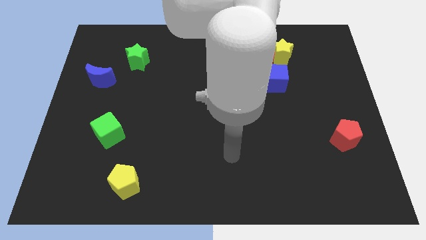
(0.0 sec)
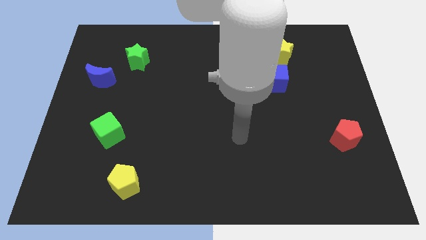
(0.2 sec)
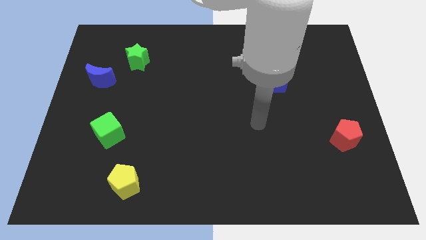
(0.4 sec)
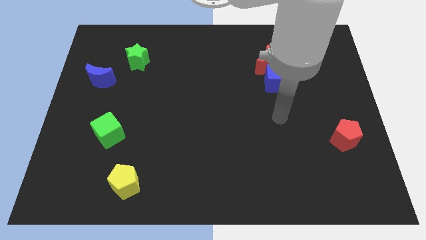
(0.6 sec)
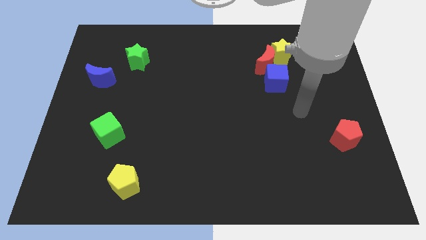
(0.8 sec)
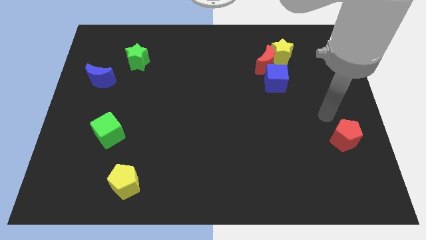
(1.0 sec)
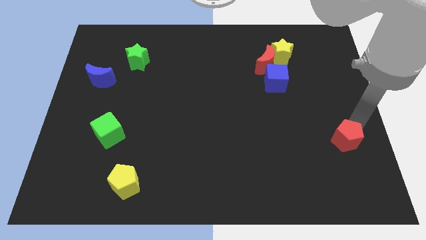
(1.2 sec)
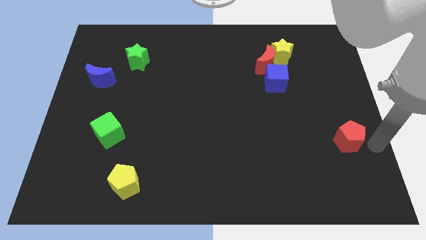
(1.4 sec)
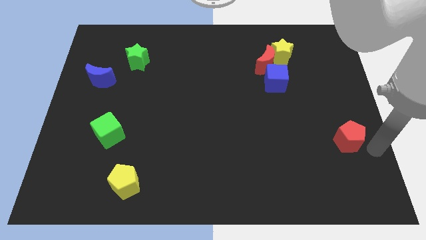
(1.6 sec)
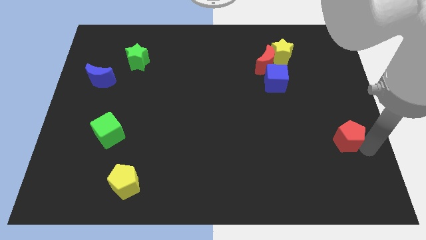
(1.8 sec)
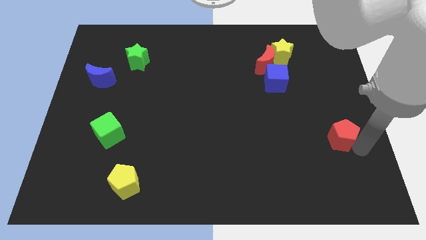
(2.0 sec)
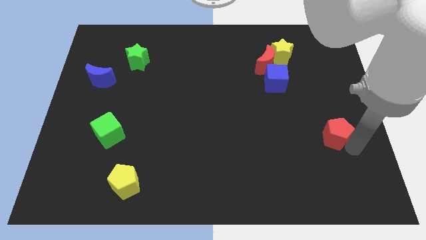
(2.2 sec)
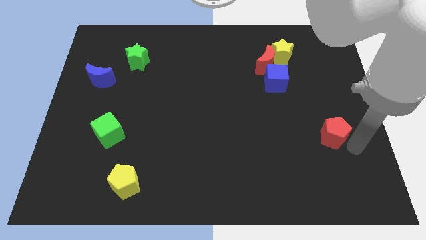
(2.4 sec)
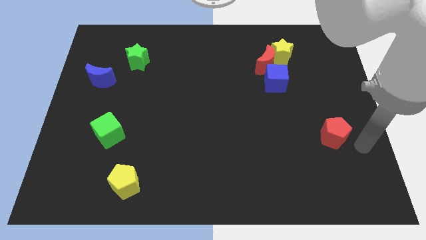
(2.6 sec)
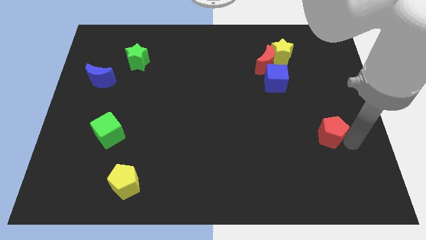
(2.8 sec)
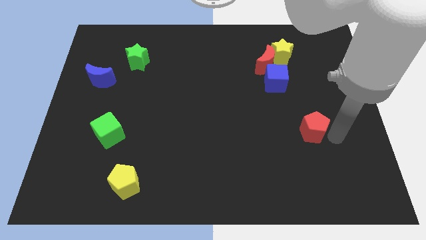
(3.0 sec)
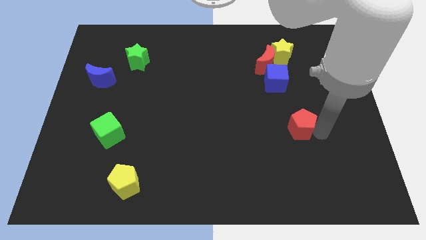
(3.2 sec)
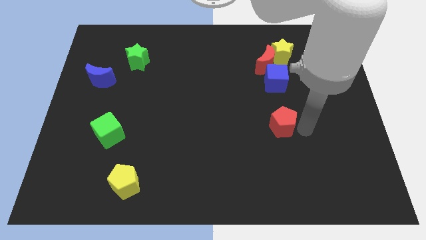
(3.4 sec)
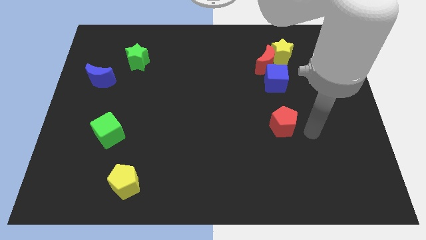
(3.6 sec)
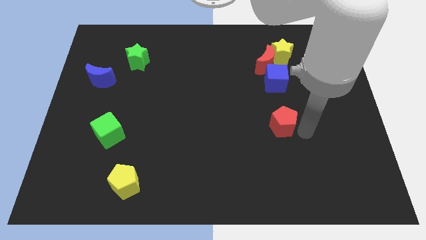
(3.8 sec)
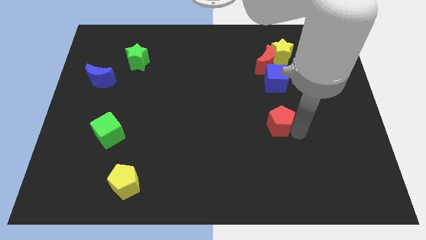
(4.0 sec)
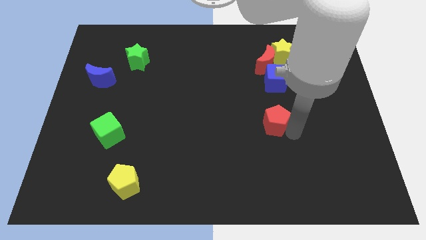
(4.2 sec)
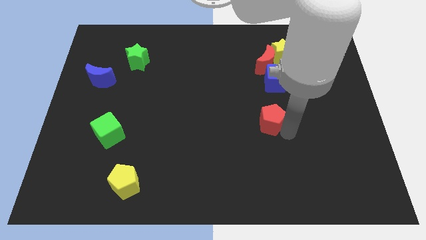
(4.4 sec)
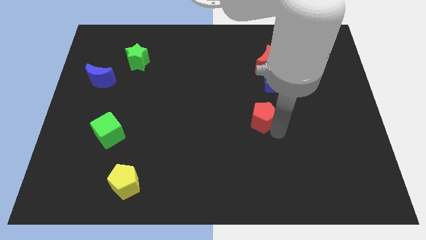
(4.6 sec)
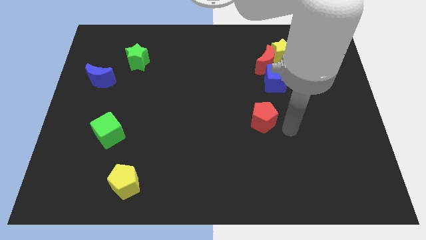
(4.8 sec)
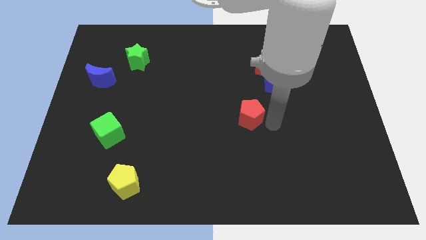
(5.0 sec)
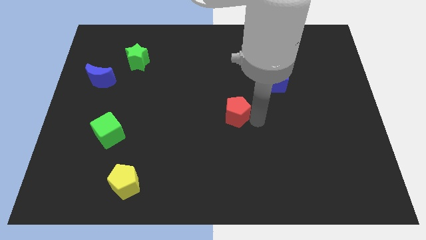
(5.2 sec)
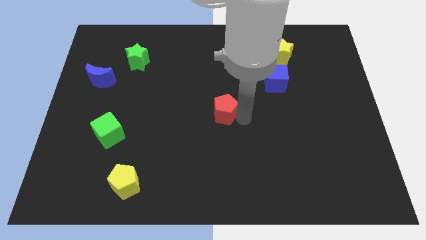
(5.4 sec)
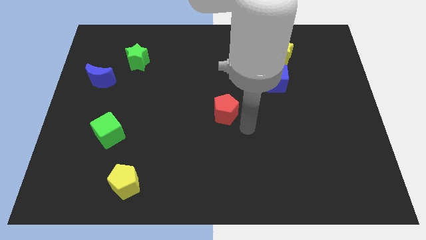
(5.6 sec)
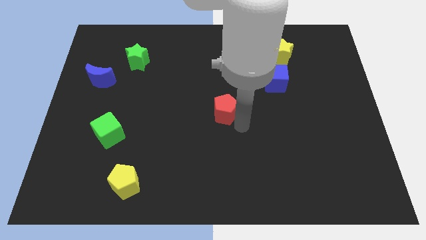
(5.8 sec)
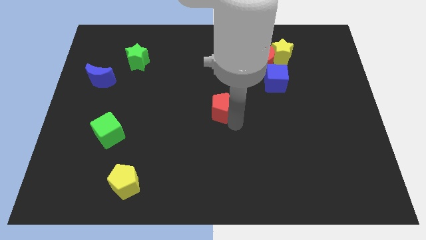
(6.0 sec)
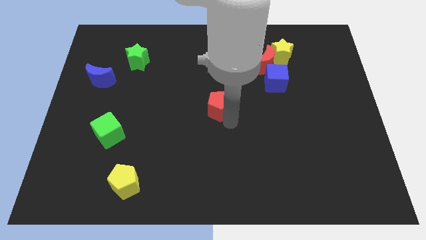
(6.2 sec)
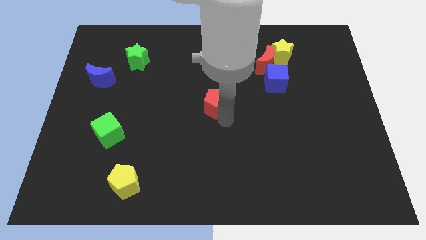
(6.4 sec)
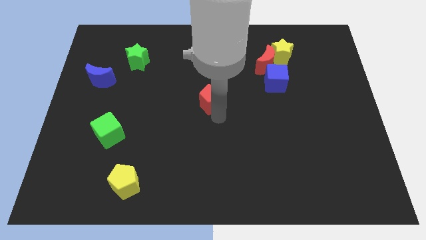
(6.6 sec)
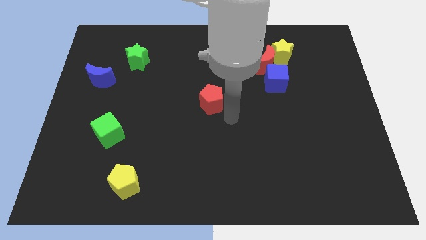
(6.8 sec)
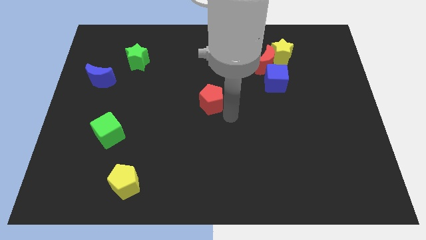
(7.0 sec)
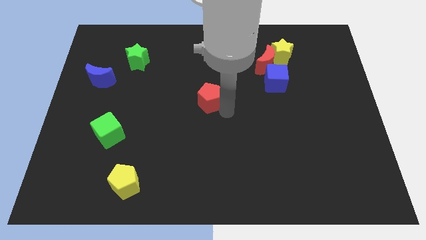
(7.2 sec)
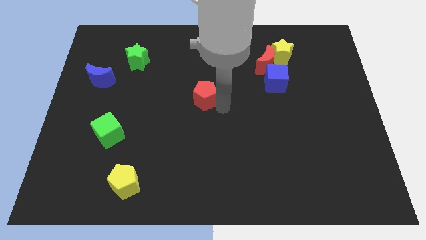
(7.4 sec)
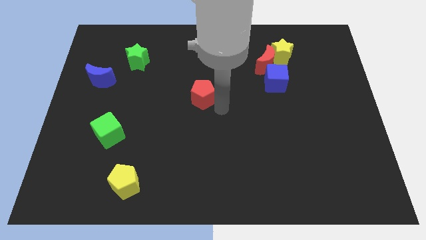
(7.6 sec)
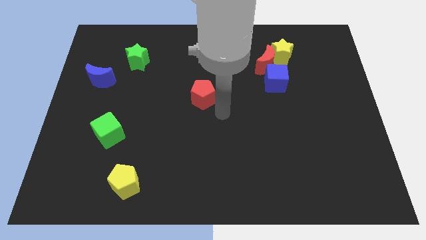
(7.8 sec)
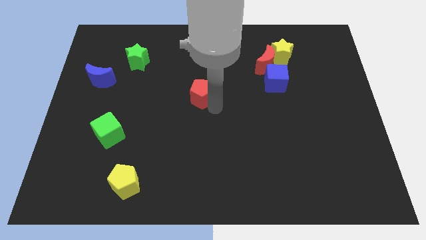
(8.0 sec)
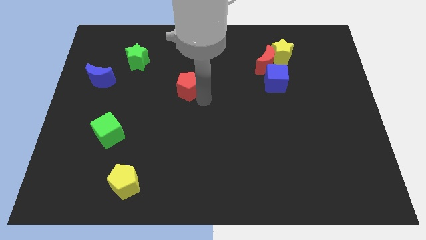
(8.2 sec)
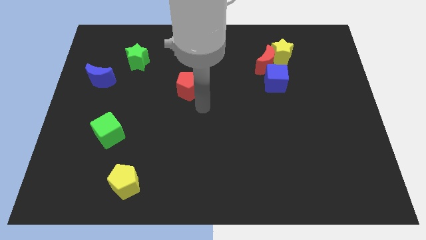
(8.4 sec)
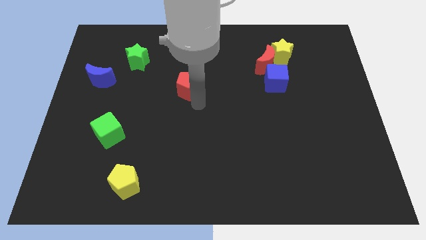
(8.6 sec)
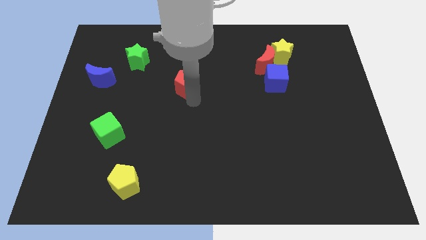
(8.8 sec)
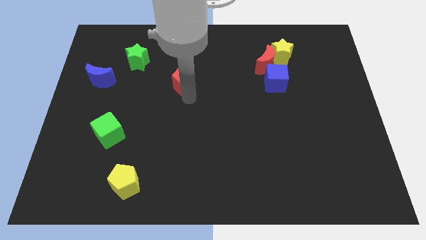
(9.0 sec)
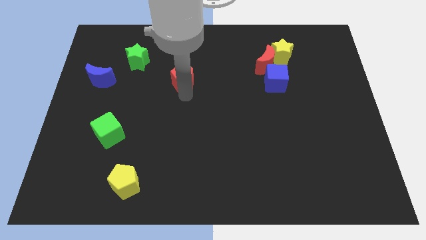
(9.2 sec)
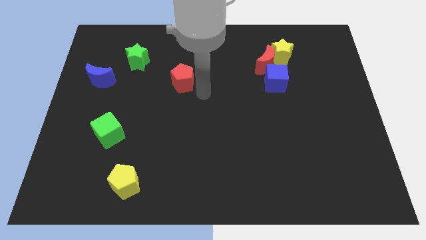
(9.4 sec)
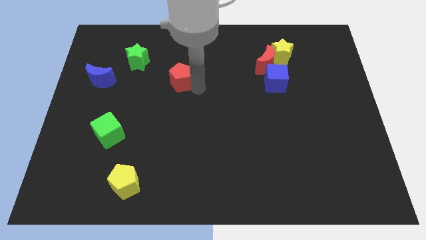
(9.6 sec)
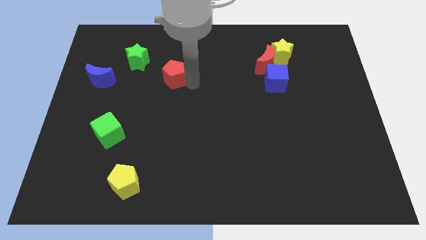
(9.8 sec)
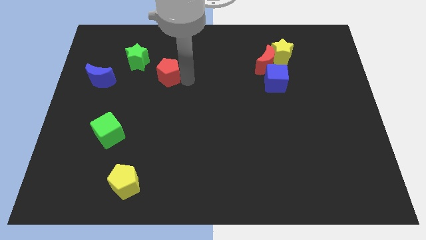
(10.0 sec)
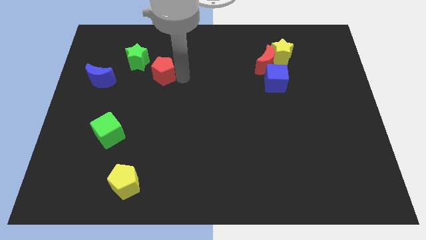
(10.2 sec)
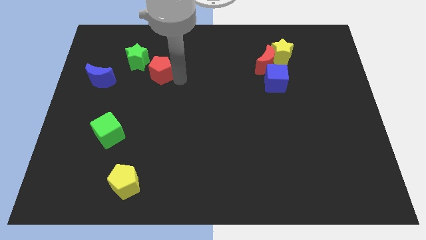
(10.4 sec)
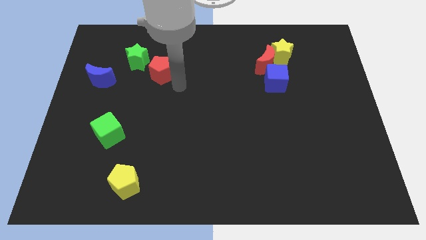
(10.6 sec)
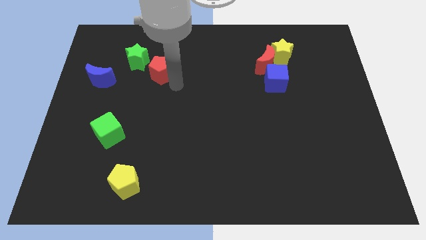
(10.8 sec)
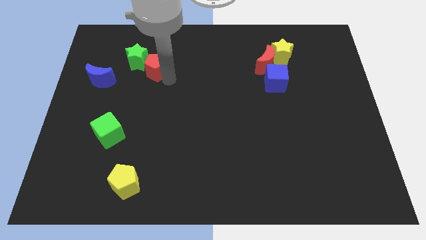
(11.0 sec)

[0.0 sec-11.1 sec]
move the red pentagon next to the green star

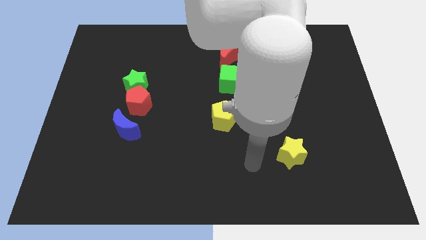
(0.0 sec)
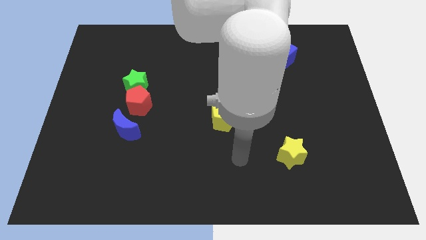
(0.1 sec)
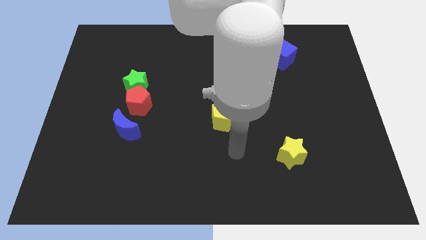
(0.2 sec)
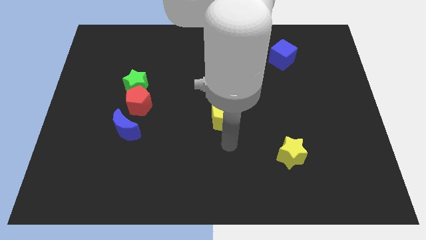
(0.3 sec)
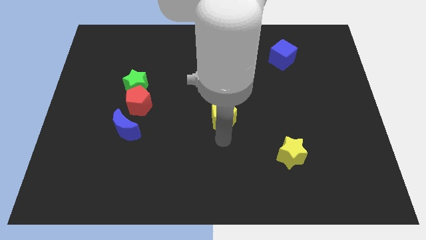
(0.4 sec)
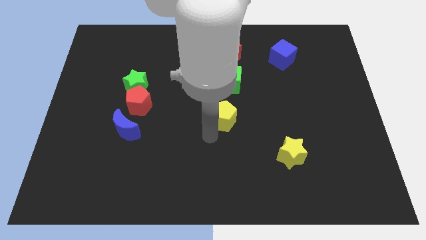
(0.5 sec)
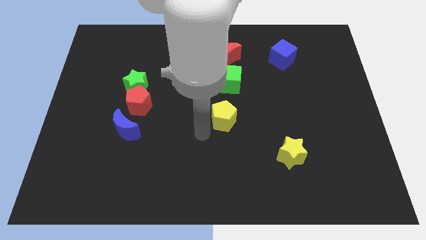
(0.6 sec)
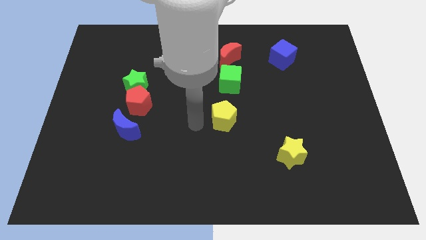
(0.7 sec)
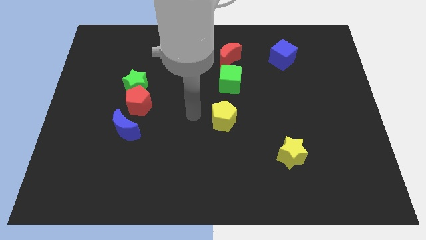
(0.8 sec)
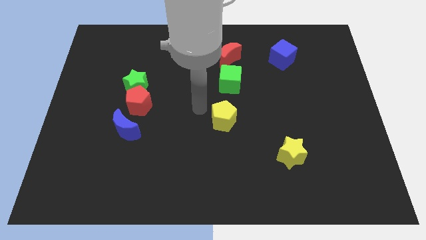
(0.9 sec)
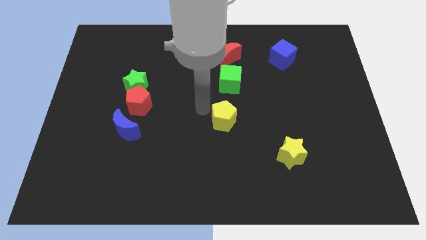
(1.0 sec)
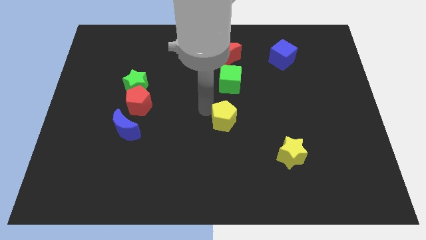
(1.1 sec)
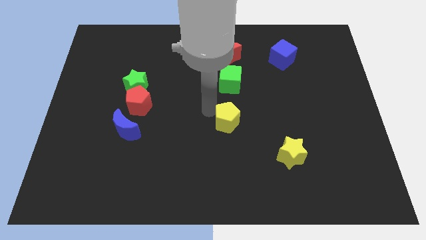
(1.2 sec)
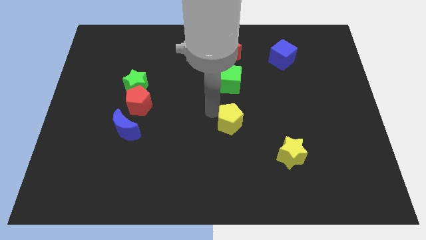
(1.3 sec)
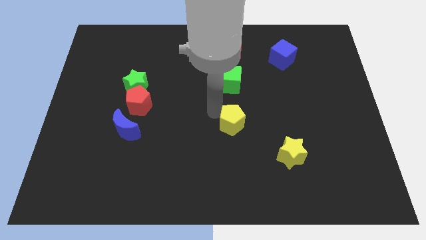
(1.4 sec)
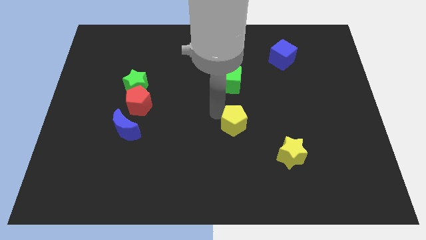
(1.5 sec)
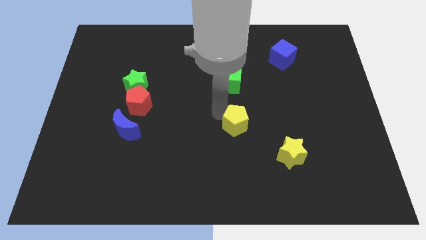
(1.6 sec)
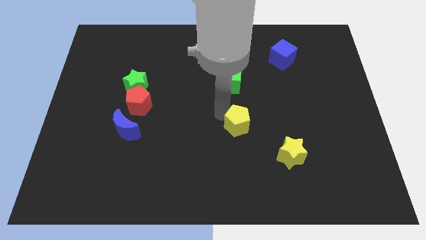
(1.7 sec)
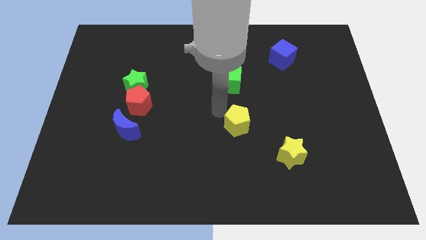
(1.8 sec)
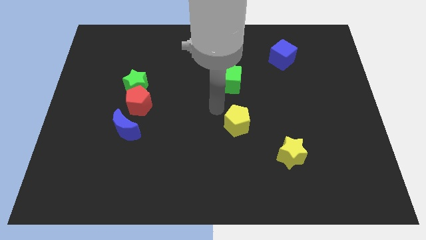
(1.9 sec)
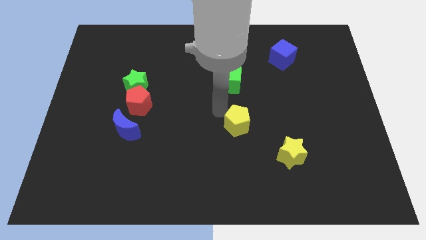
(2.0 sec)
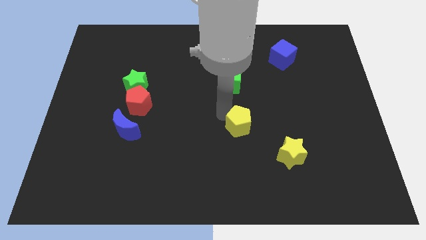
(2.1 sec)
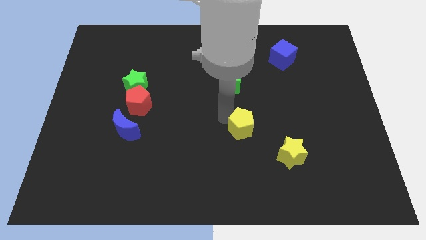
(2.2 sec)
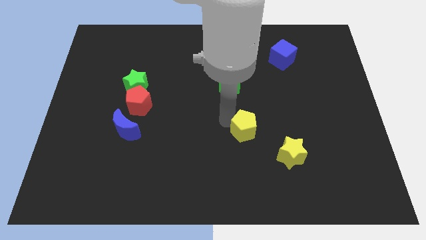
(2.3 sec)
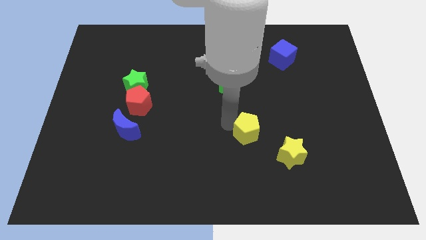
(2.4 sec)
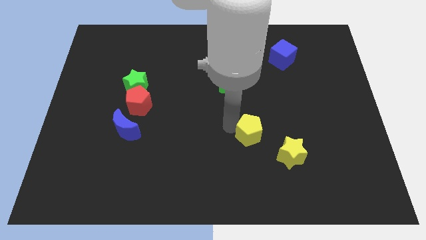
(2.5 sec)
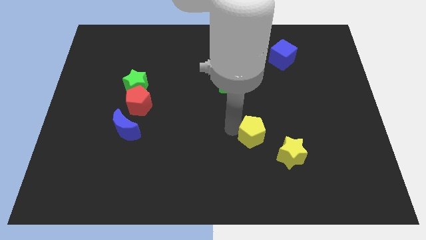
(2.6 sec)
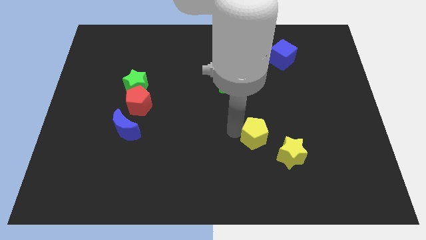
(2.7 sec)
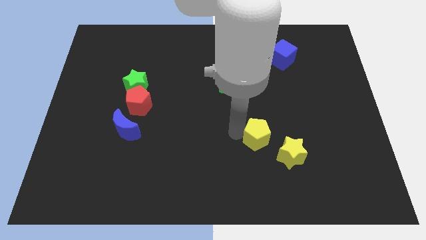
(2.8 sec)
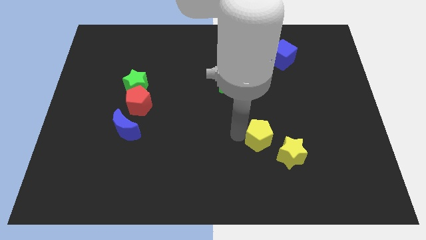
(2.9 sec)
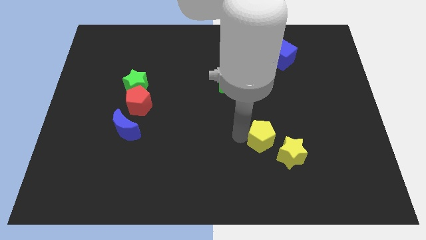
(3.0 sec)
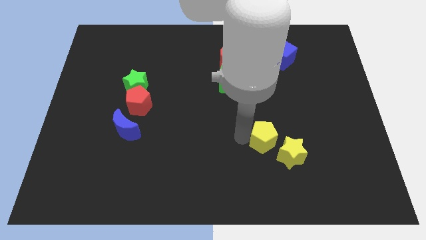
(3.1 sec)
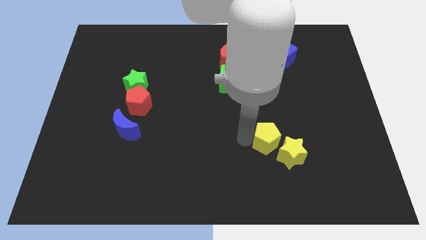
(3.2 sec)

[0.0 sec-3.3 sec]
put the yellow pentagon towards the yellow star
